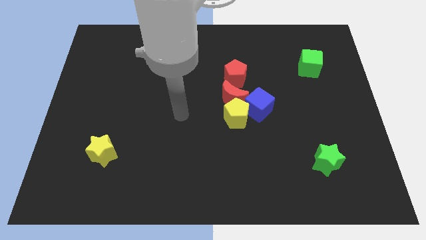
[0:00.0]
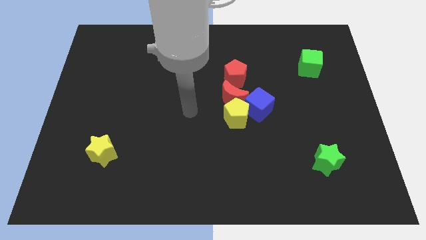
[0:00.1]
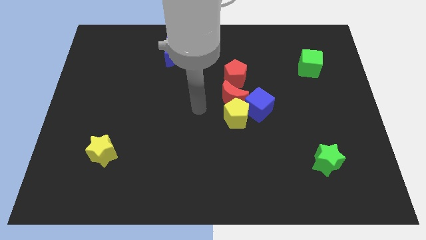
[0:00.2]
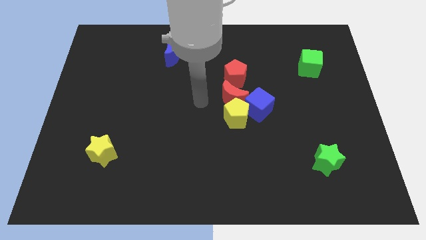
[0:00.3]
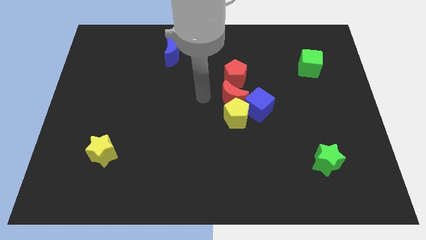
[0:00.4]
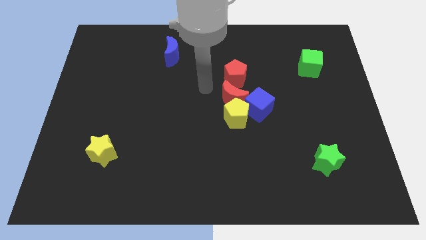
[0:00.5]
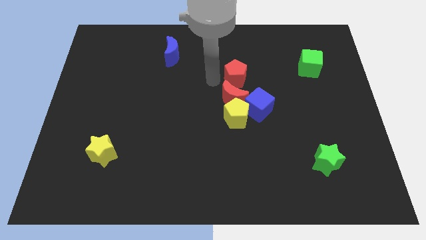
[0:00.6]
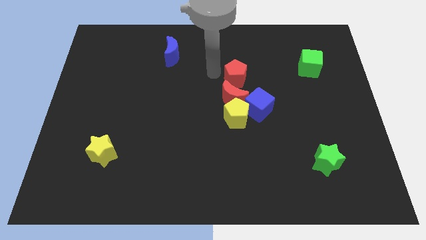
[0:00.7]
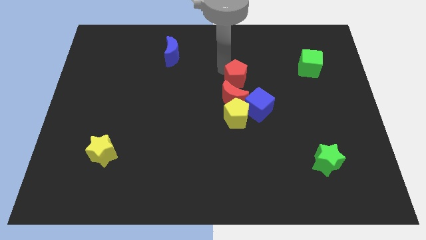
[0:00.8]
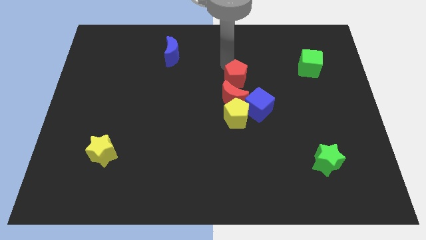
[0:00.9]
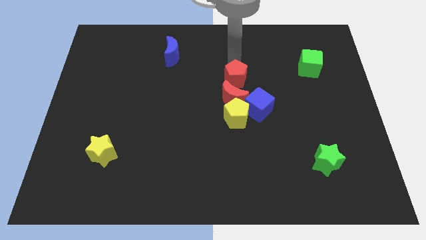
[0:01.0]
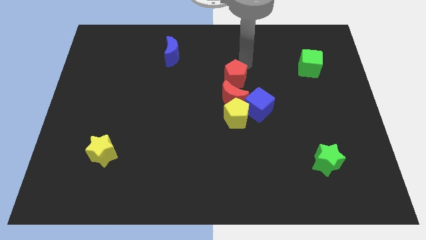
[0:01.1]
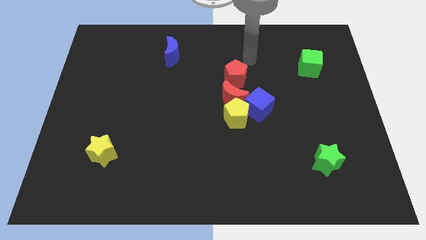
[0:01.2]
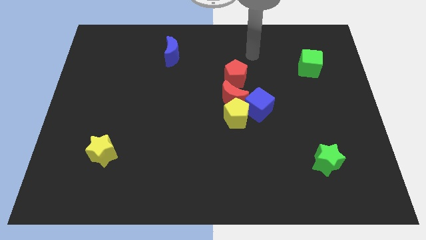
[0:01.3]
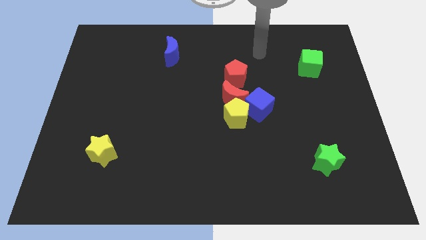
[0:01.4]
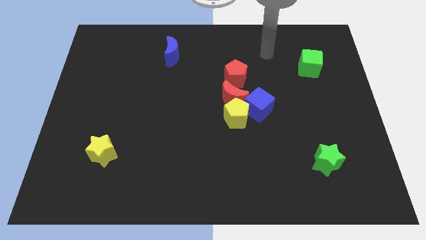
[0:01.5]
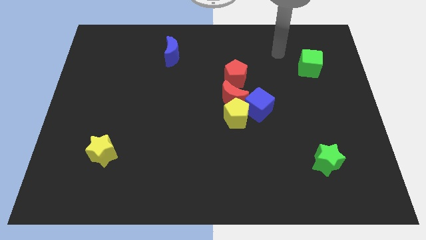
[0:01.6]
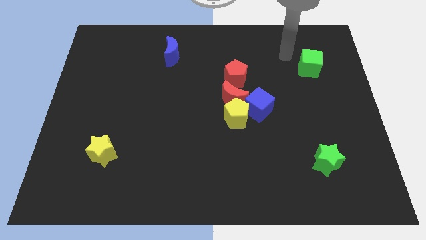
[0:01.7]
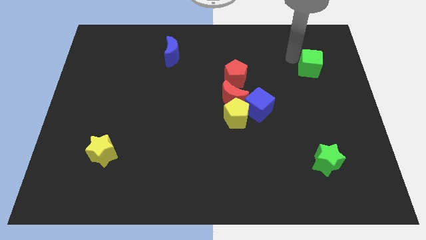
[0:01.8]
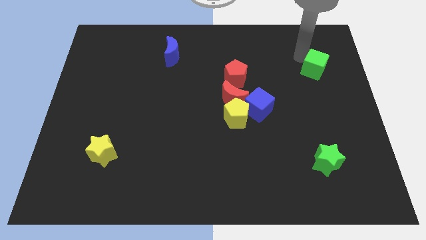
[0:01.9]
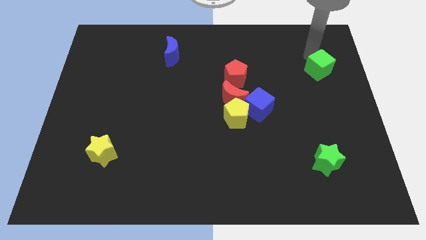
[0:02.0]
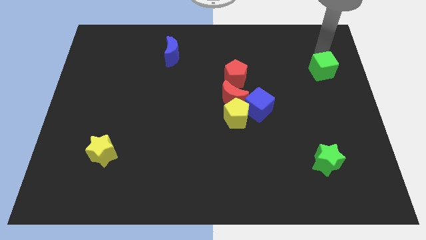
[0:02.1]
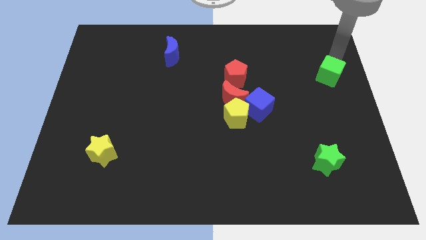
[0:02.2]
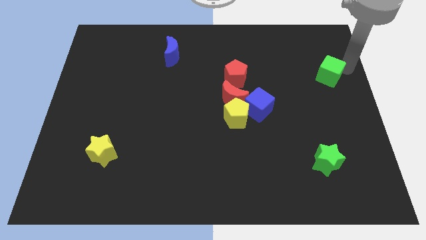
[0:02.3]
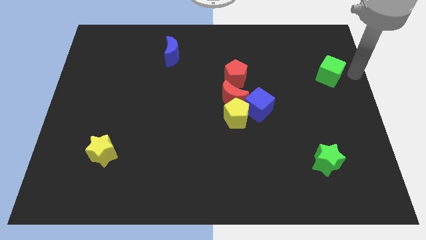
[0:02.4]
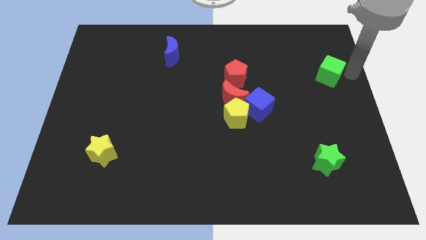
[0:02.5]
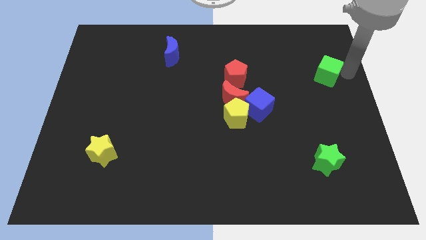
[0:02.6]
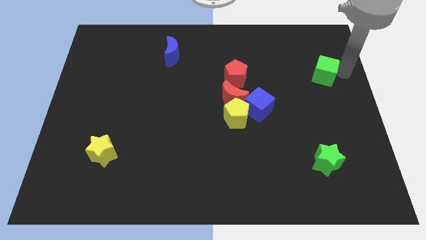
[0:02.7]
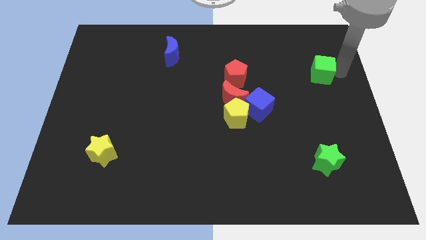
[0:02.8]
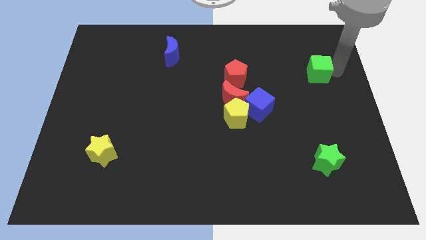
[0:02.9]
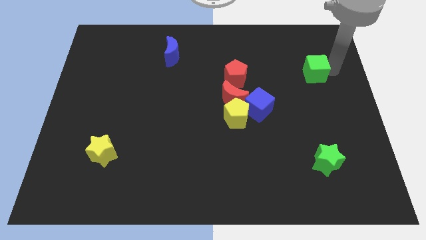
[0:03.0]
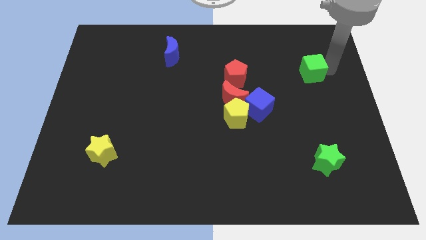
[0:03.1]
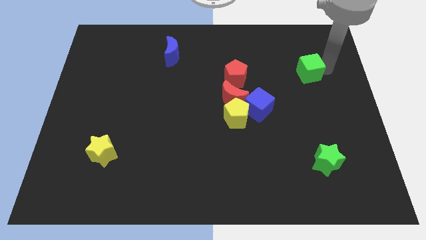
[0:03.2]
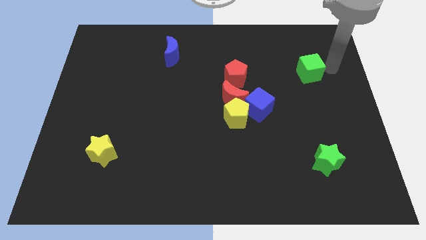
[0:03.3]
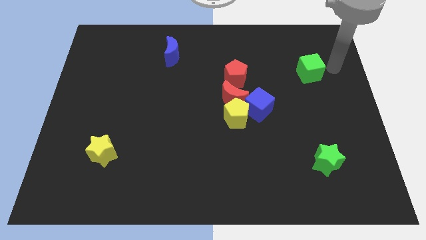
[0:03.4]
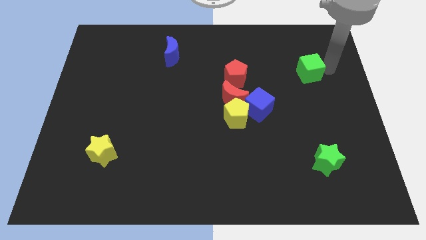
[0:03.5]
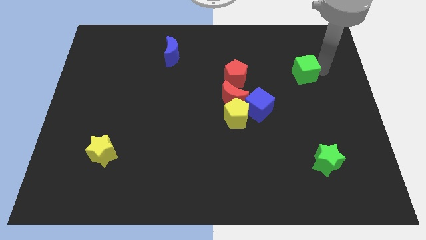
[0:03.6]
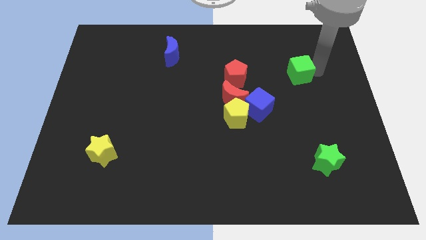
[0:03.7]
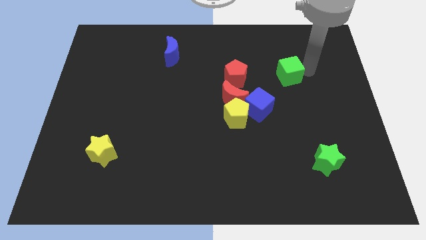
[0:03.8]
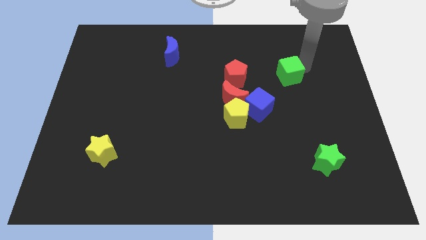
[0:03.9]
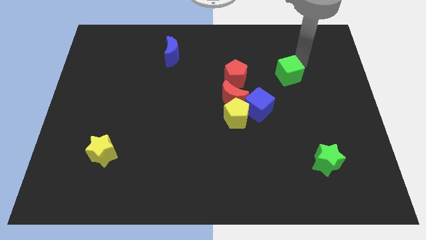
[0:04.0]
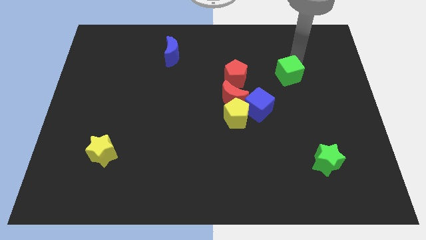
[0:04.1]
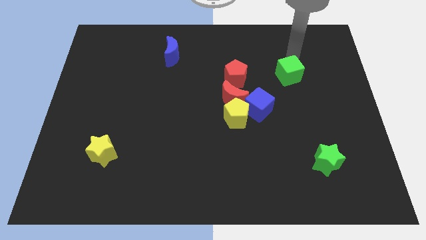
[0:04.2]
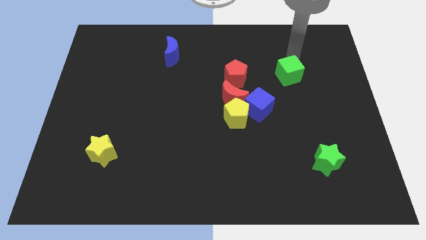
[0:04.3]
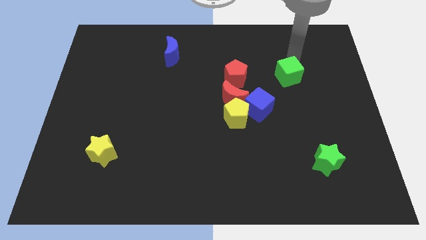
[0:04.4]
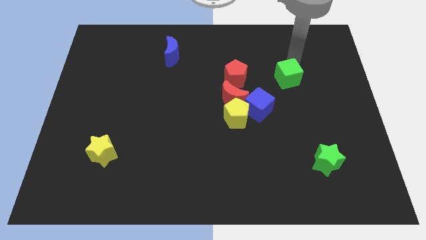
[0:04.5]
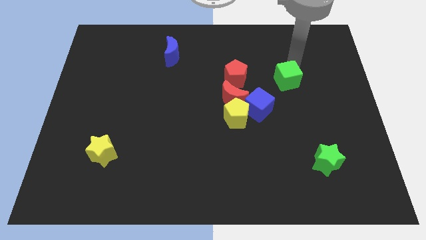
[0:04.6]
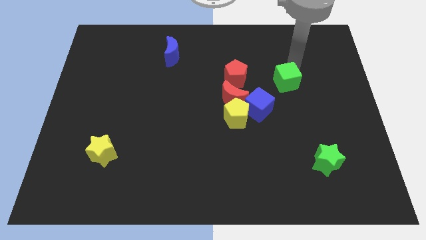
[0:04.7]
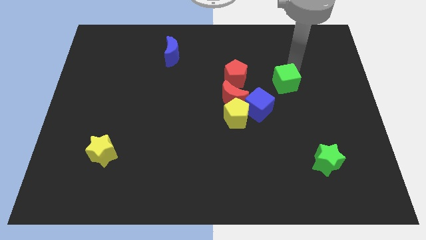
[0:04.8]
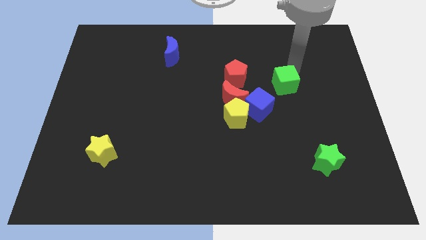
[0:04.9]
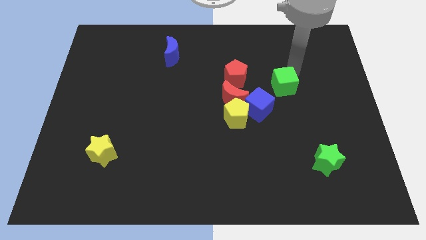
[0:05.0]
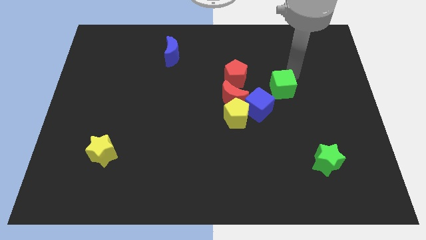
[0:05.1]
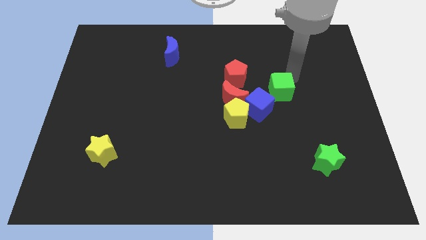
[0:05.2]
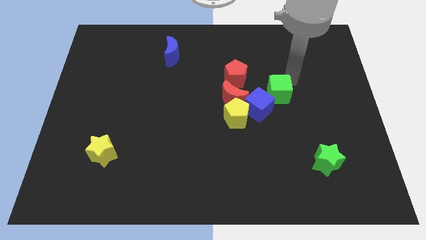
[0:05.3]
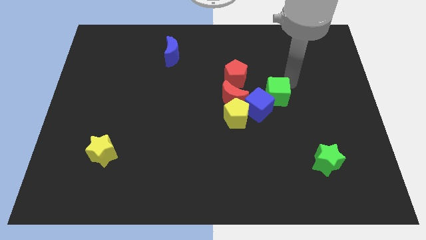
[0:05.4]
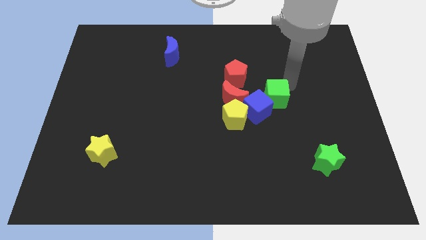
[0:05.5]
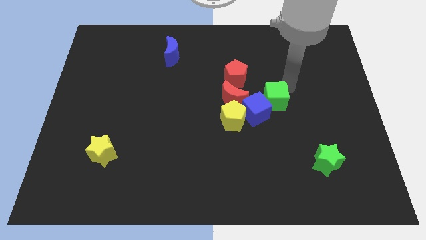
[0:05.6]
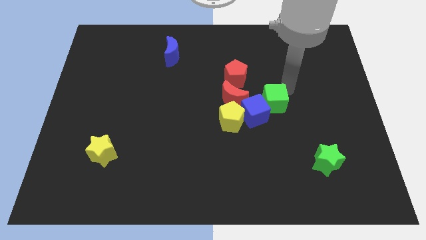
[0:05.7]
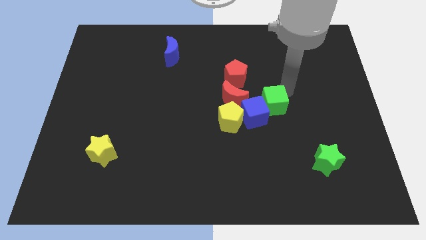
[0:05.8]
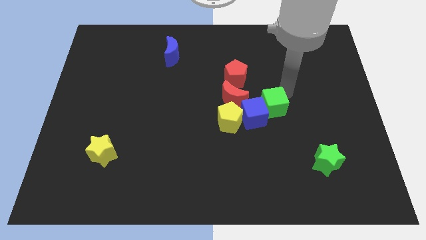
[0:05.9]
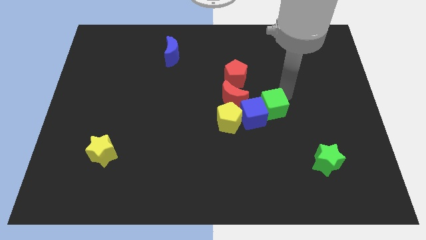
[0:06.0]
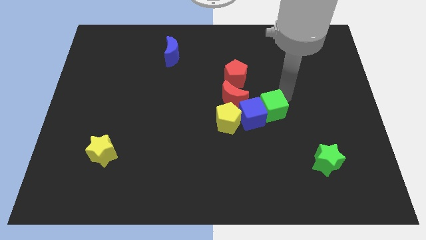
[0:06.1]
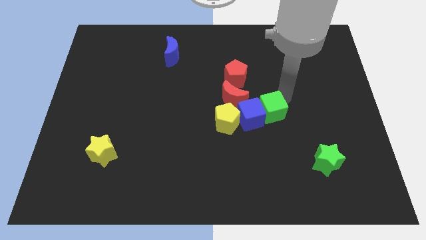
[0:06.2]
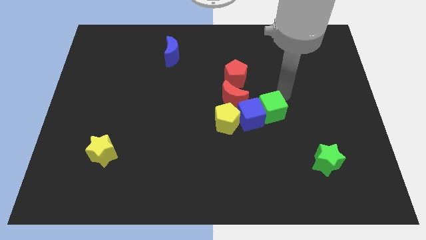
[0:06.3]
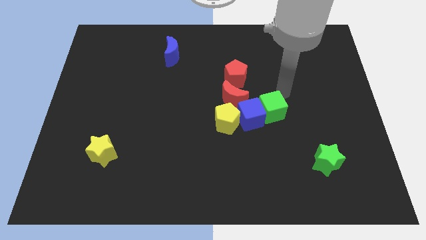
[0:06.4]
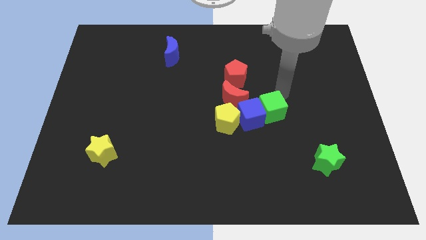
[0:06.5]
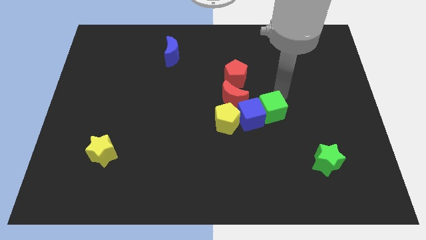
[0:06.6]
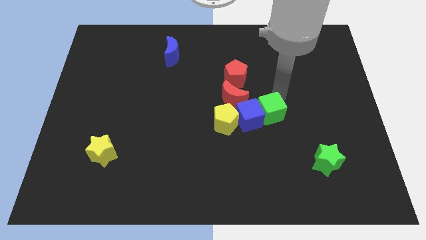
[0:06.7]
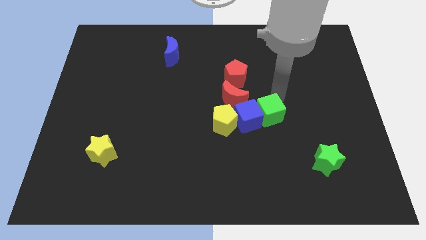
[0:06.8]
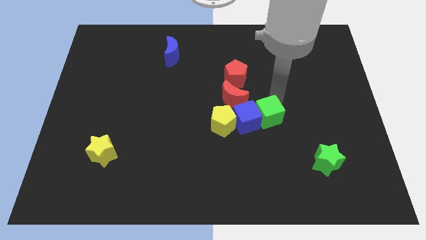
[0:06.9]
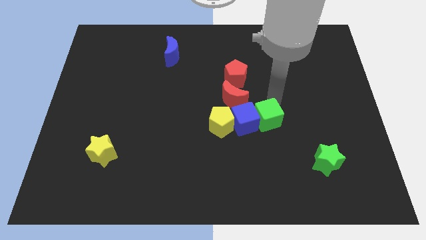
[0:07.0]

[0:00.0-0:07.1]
slide the green cube down and left diagonally

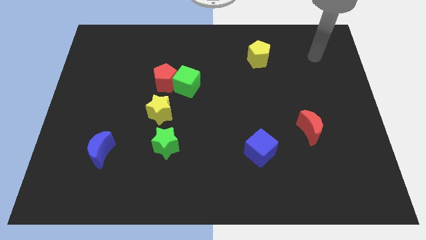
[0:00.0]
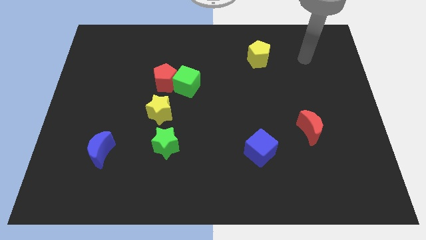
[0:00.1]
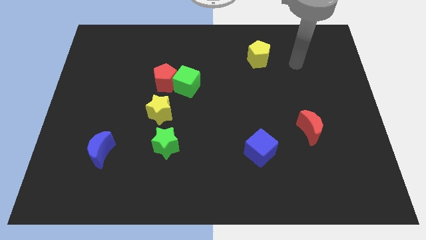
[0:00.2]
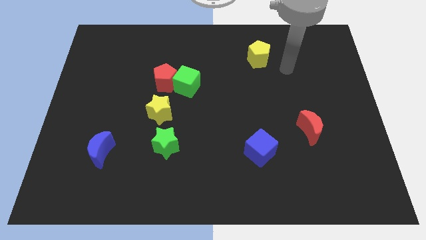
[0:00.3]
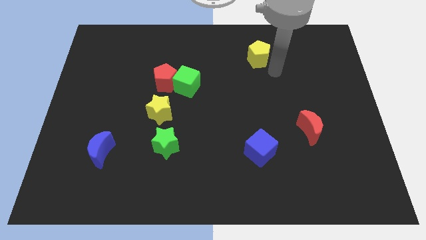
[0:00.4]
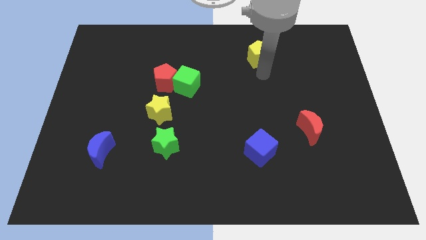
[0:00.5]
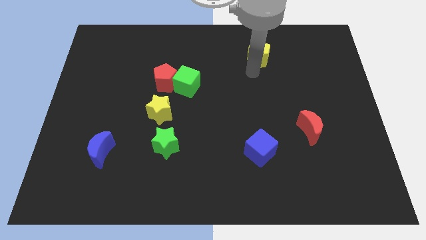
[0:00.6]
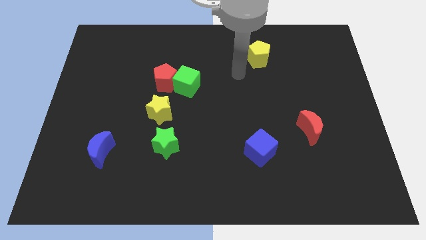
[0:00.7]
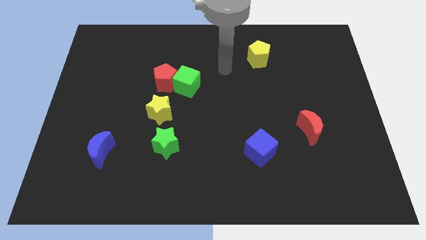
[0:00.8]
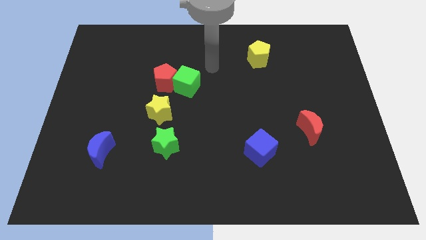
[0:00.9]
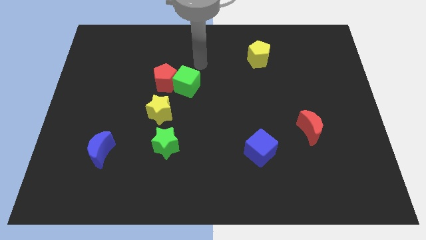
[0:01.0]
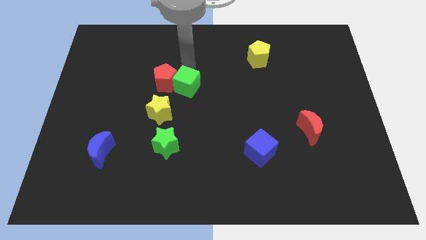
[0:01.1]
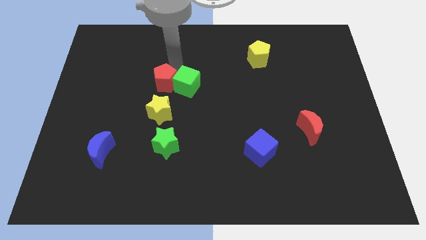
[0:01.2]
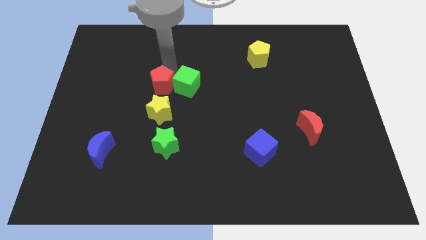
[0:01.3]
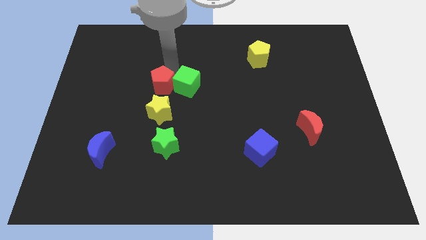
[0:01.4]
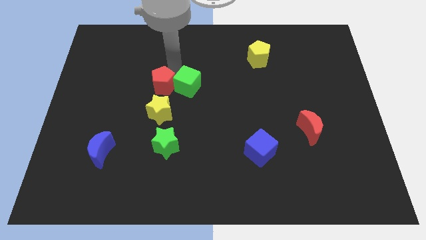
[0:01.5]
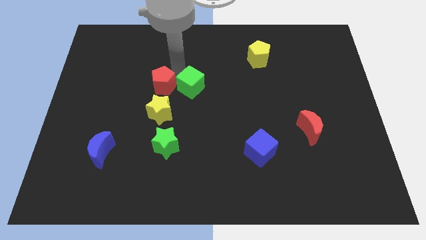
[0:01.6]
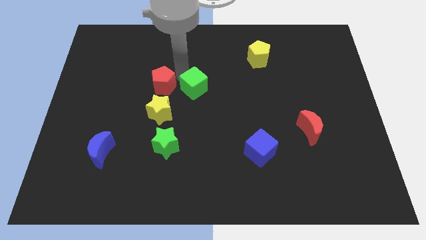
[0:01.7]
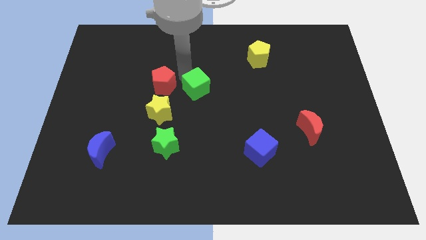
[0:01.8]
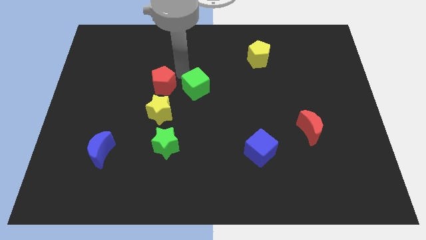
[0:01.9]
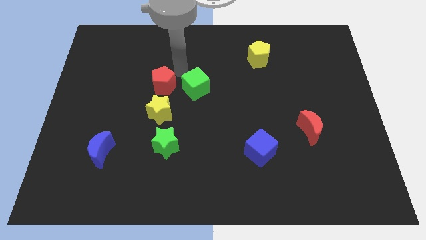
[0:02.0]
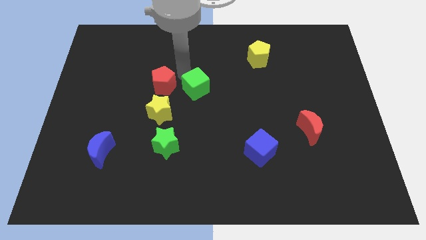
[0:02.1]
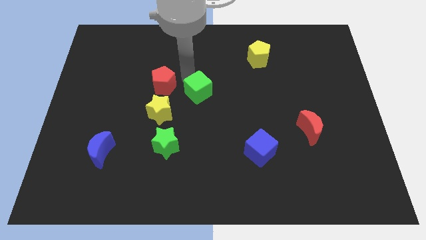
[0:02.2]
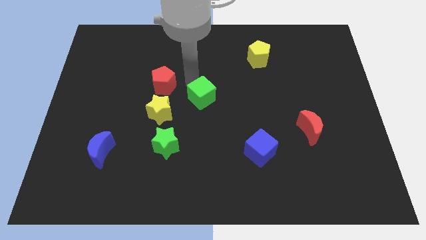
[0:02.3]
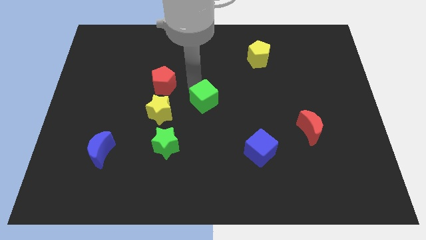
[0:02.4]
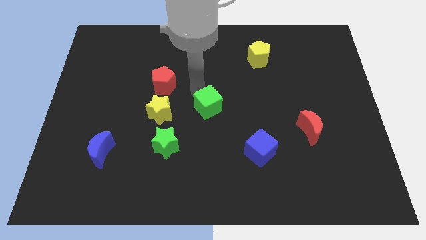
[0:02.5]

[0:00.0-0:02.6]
slightly push the green cube down and to the right
